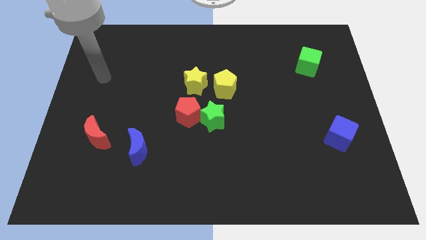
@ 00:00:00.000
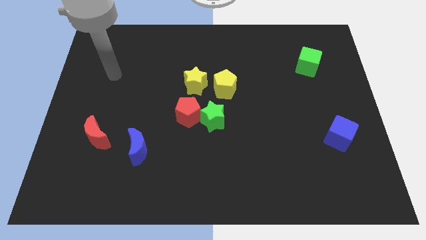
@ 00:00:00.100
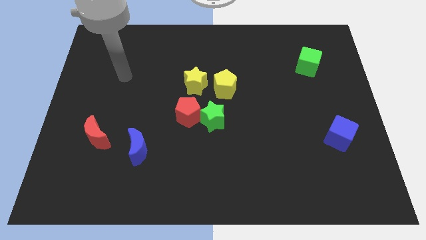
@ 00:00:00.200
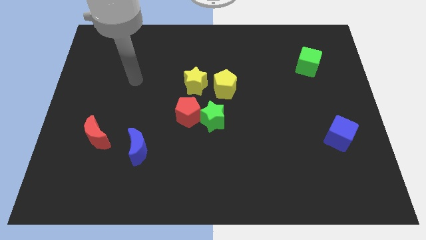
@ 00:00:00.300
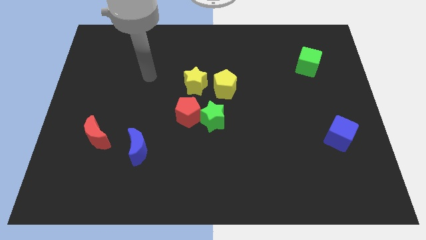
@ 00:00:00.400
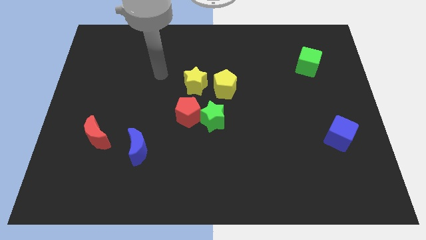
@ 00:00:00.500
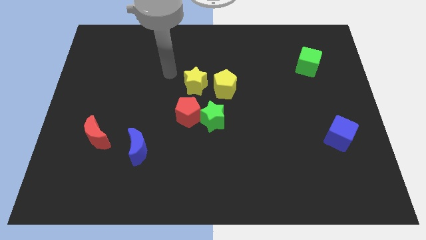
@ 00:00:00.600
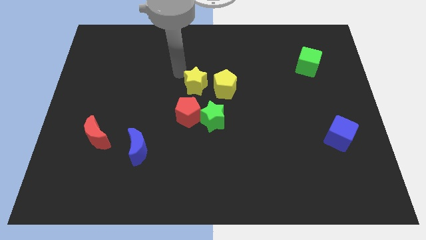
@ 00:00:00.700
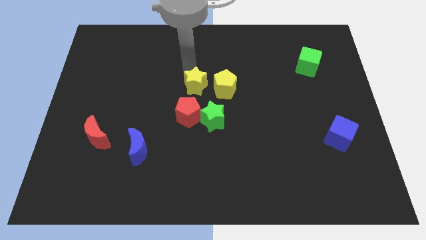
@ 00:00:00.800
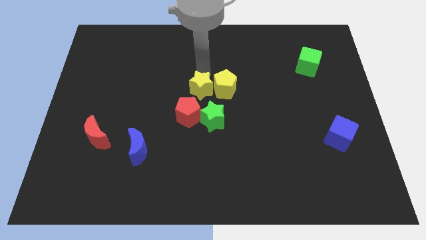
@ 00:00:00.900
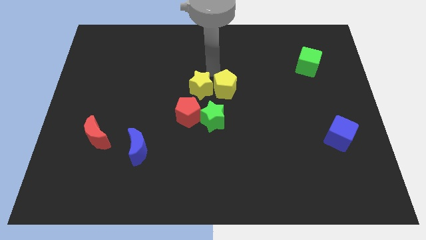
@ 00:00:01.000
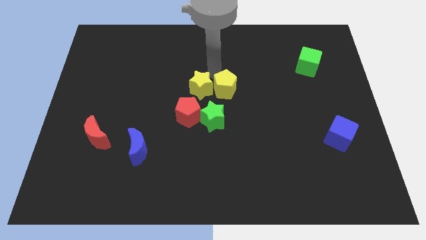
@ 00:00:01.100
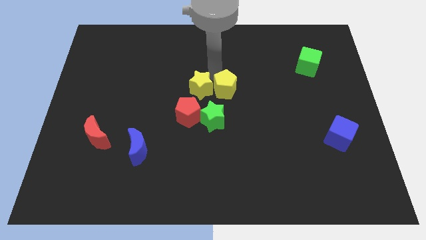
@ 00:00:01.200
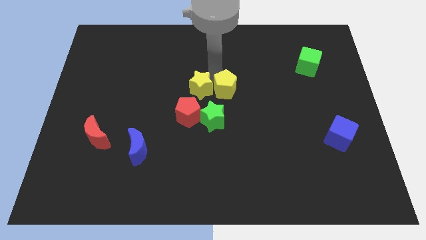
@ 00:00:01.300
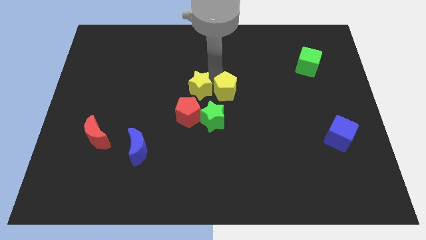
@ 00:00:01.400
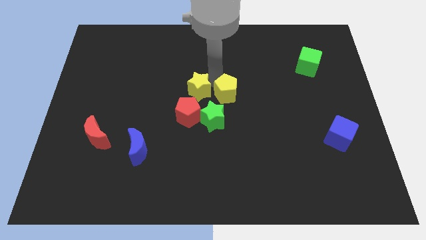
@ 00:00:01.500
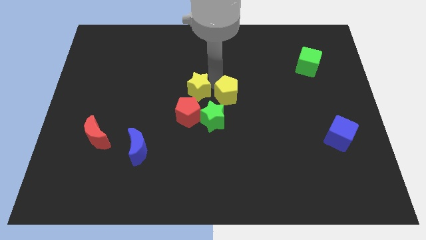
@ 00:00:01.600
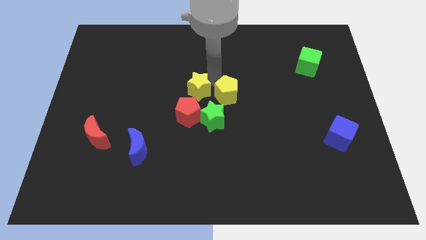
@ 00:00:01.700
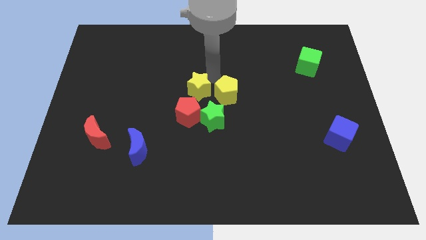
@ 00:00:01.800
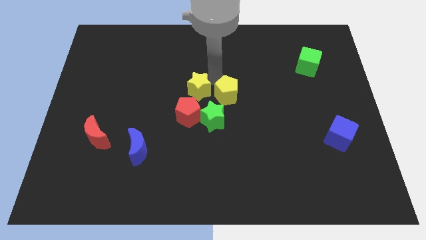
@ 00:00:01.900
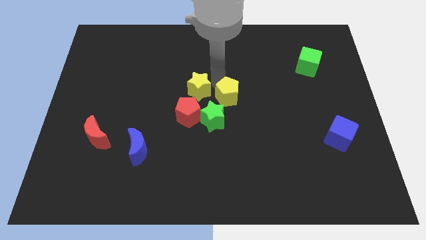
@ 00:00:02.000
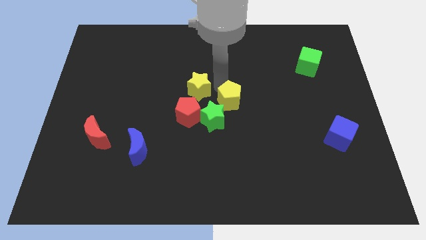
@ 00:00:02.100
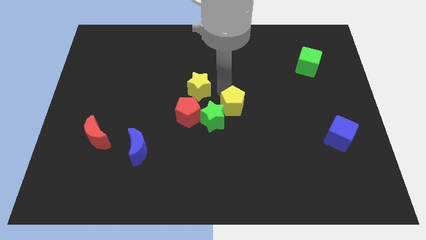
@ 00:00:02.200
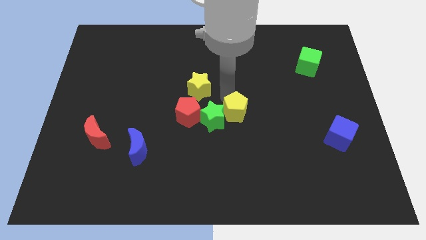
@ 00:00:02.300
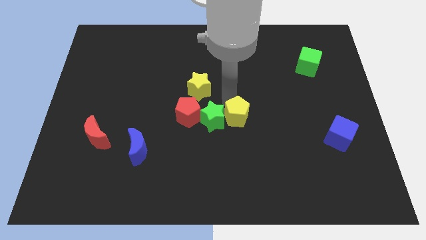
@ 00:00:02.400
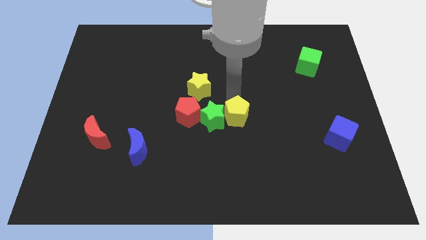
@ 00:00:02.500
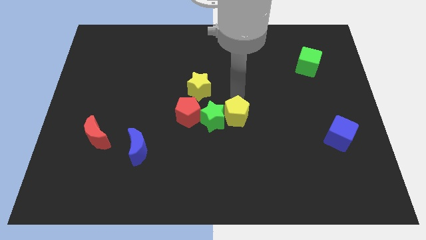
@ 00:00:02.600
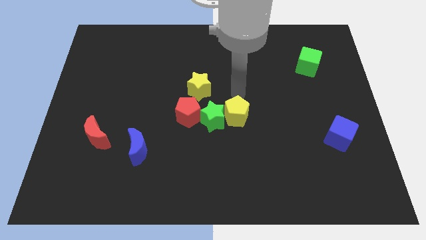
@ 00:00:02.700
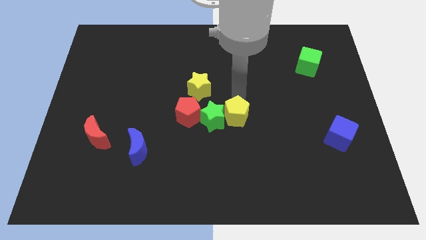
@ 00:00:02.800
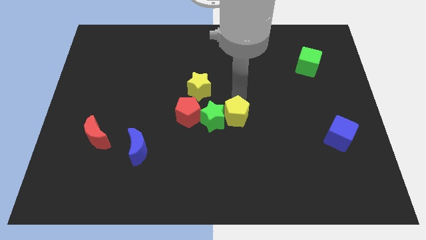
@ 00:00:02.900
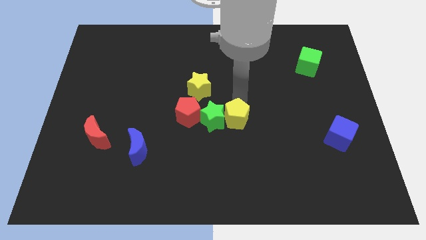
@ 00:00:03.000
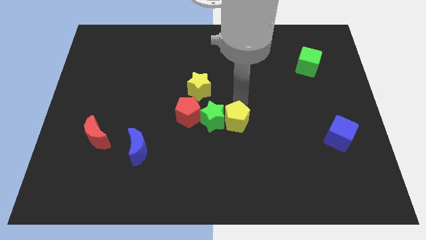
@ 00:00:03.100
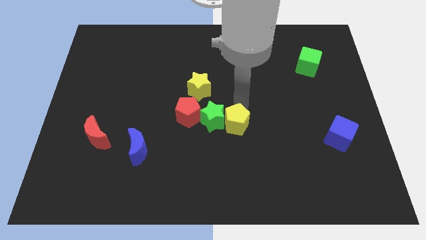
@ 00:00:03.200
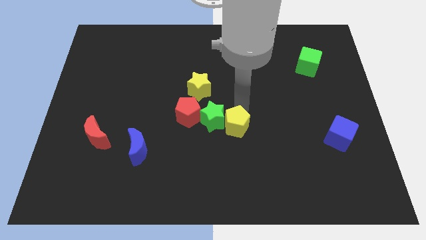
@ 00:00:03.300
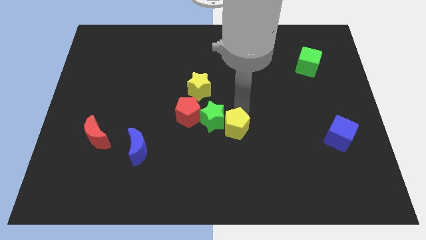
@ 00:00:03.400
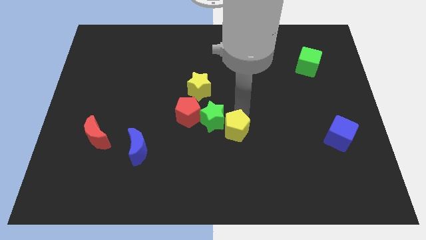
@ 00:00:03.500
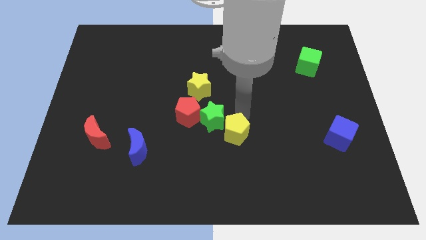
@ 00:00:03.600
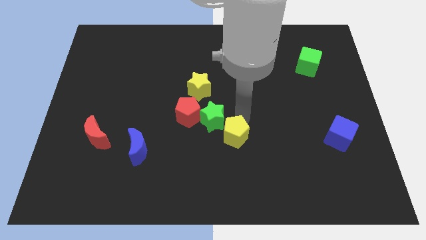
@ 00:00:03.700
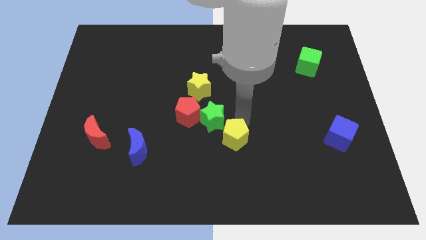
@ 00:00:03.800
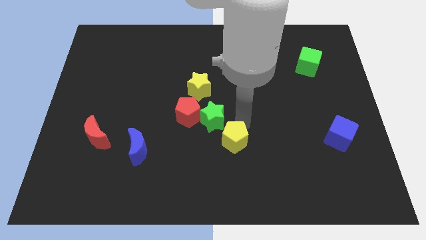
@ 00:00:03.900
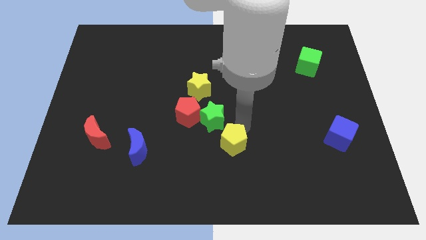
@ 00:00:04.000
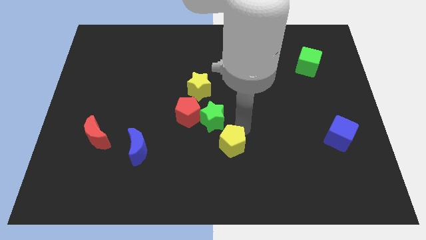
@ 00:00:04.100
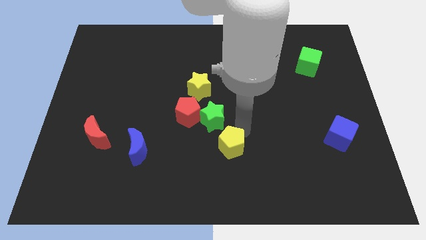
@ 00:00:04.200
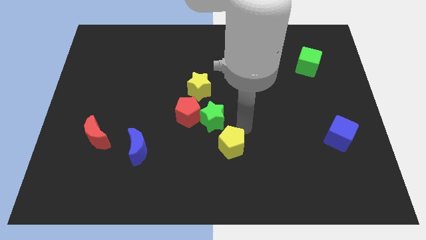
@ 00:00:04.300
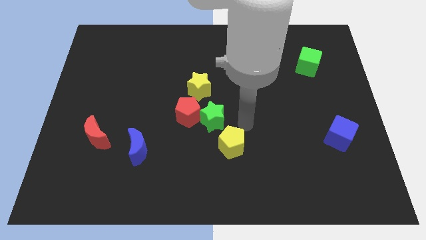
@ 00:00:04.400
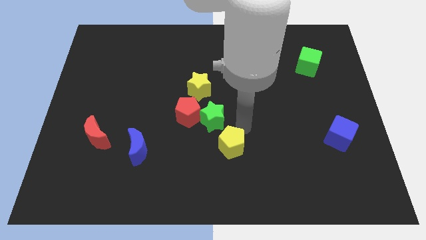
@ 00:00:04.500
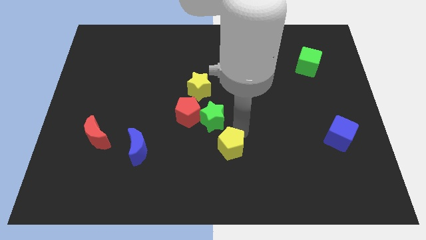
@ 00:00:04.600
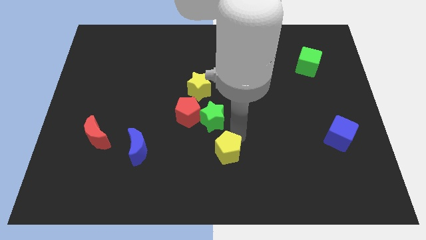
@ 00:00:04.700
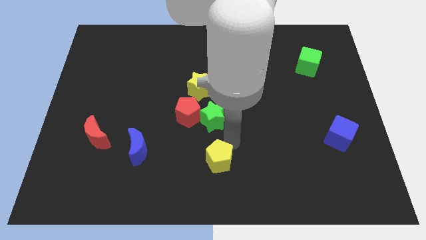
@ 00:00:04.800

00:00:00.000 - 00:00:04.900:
put the yellow pentagon to the bottom side

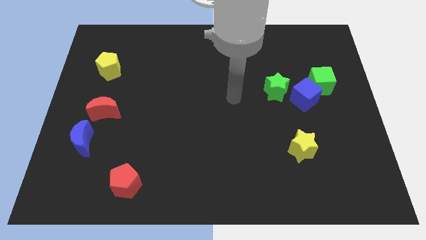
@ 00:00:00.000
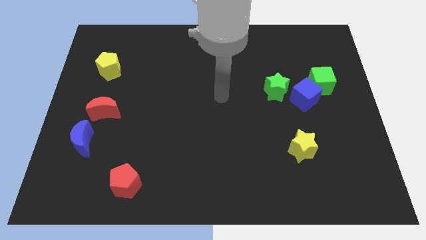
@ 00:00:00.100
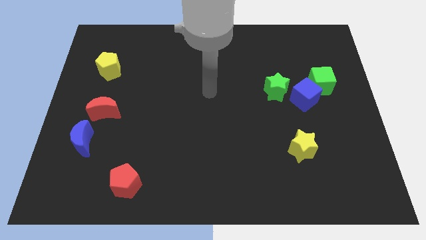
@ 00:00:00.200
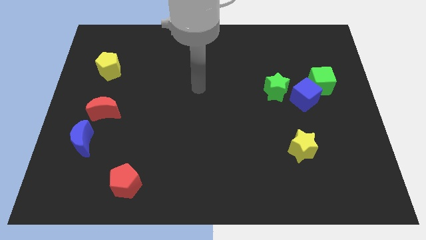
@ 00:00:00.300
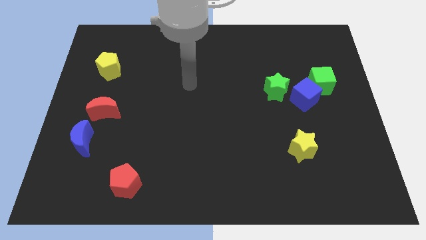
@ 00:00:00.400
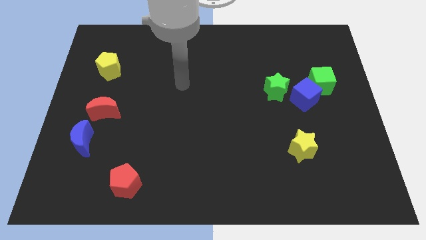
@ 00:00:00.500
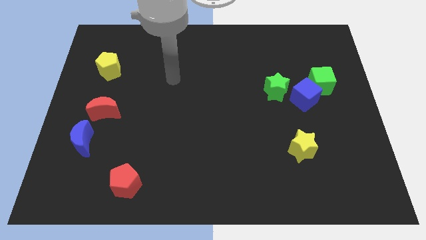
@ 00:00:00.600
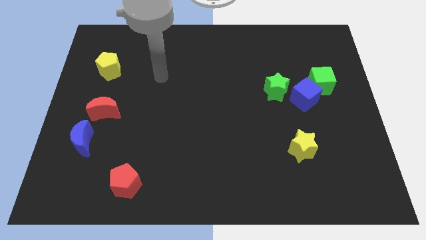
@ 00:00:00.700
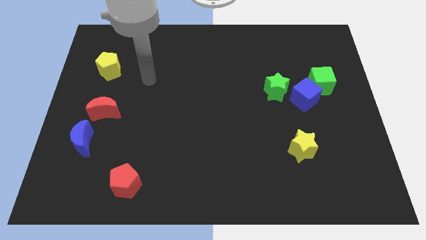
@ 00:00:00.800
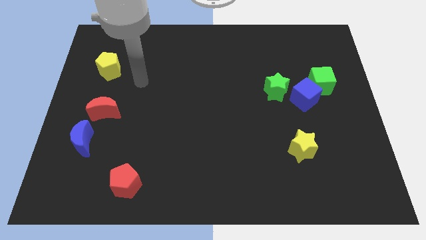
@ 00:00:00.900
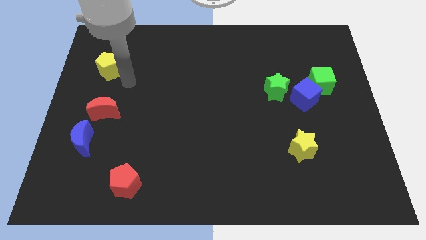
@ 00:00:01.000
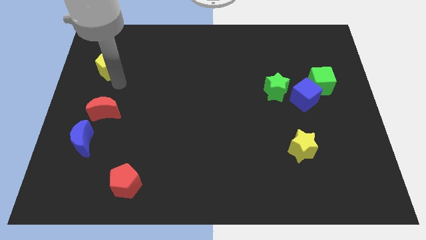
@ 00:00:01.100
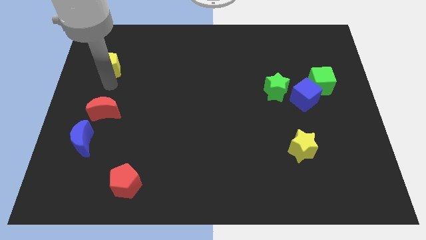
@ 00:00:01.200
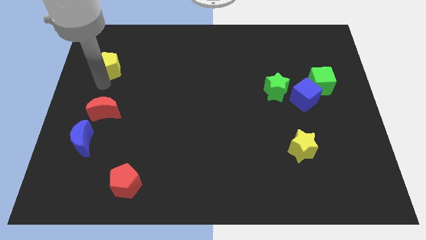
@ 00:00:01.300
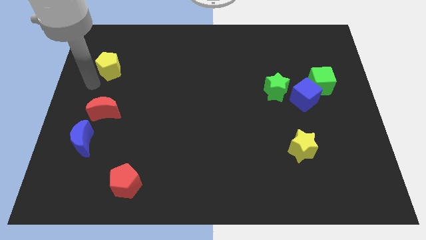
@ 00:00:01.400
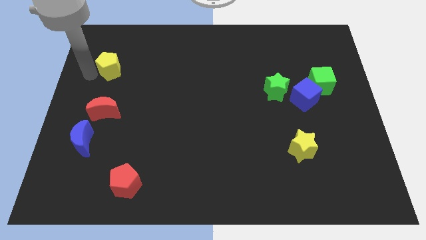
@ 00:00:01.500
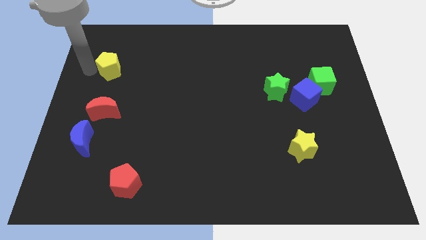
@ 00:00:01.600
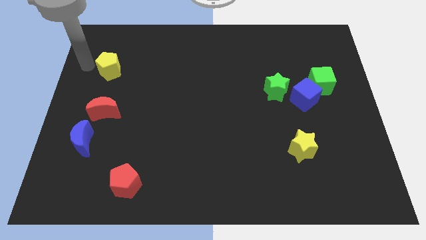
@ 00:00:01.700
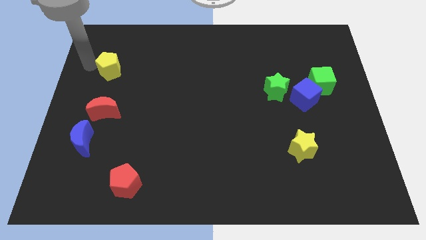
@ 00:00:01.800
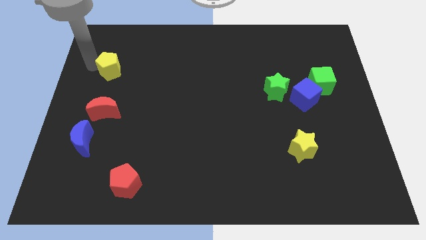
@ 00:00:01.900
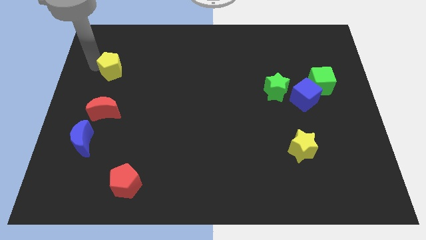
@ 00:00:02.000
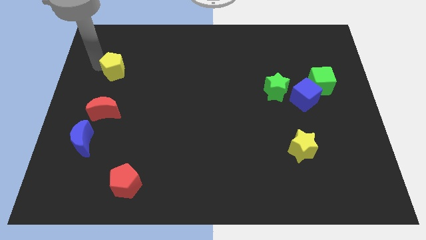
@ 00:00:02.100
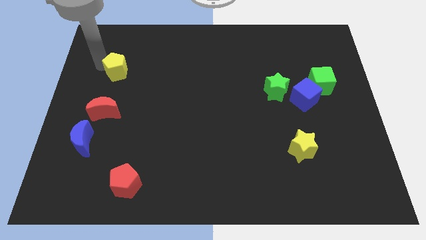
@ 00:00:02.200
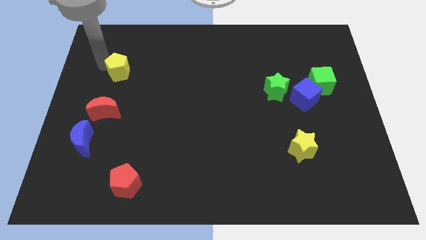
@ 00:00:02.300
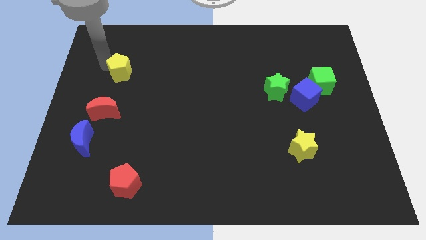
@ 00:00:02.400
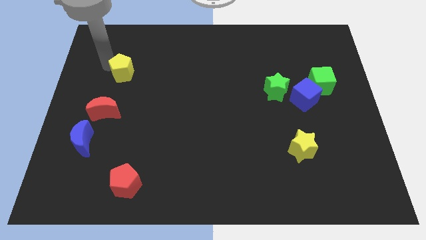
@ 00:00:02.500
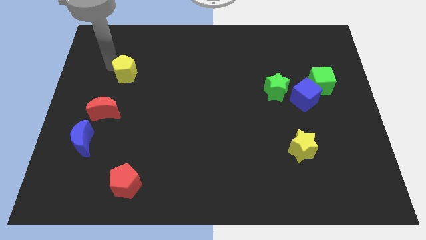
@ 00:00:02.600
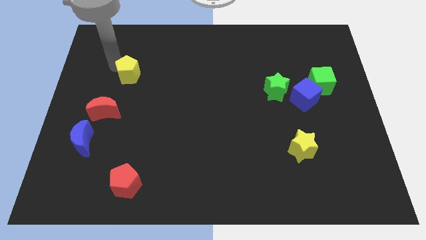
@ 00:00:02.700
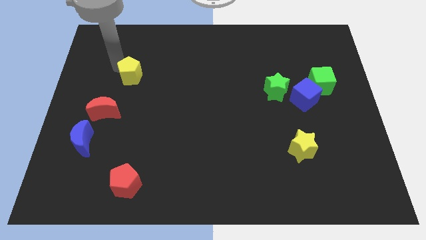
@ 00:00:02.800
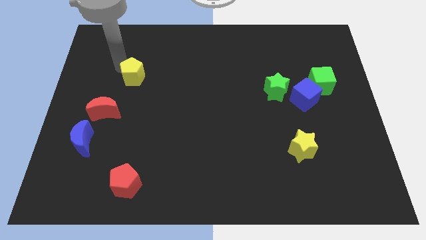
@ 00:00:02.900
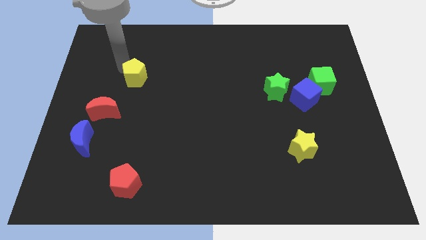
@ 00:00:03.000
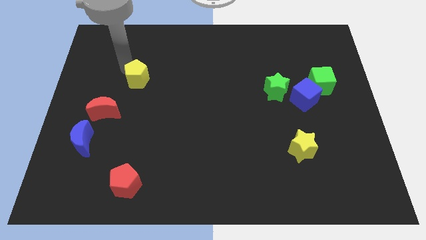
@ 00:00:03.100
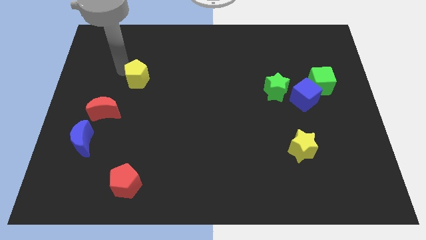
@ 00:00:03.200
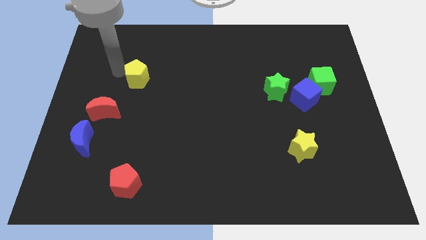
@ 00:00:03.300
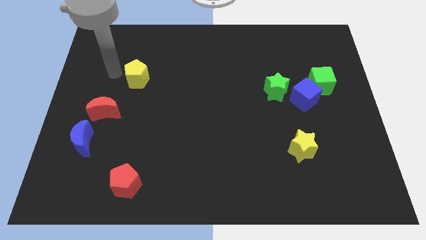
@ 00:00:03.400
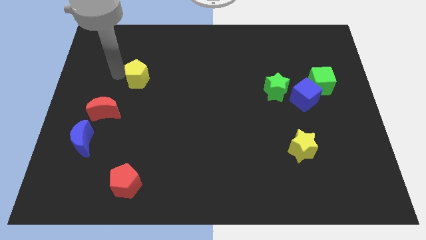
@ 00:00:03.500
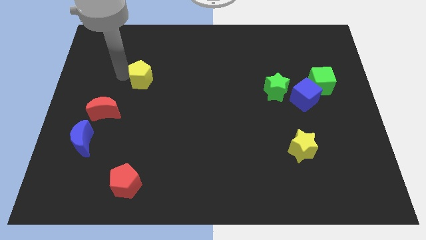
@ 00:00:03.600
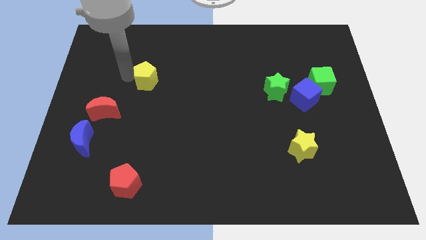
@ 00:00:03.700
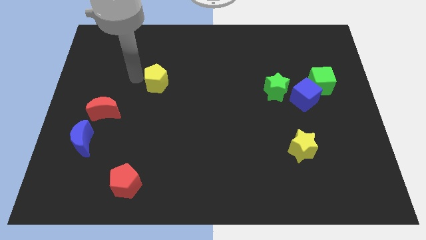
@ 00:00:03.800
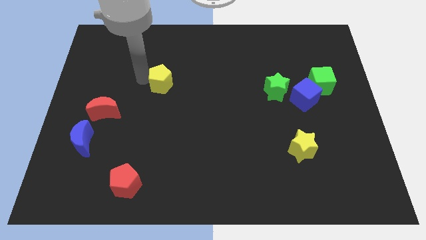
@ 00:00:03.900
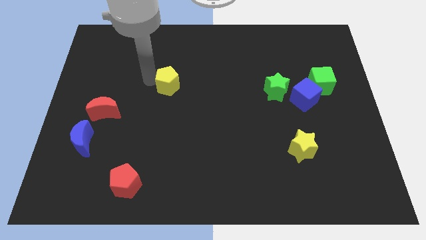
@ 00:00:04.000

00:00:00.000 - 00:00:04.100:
push the yellow pentagon to the middle
